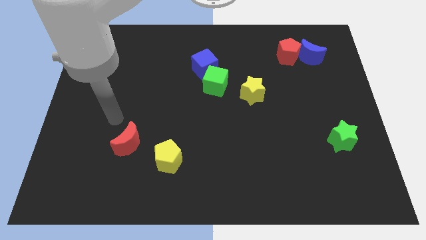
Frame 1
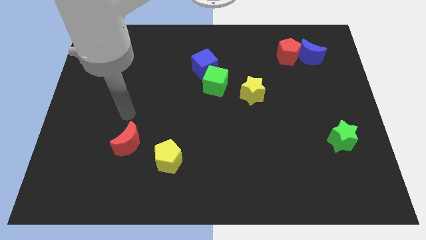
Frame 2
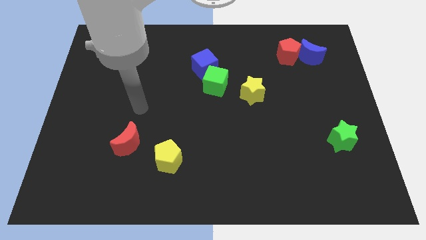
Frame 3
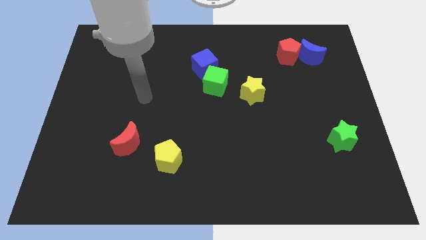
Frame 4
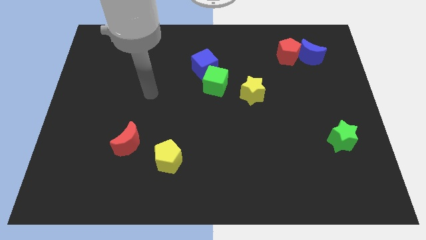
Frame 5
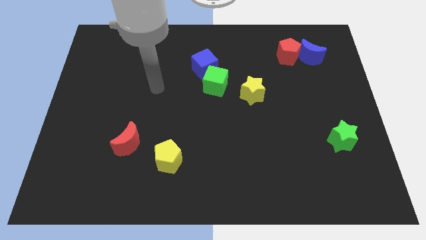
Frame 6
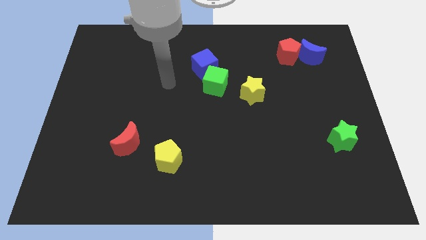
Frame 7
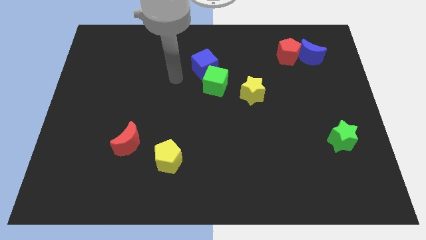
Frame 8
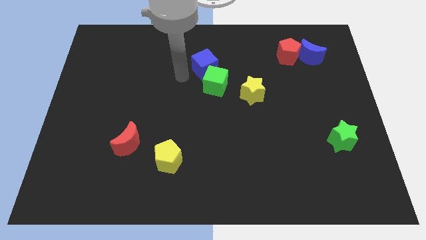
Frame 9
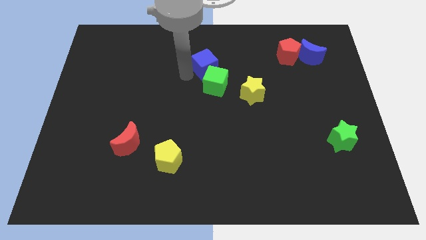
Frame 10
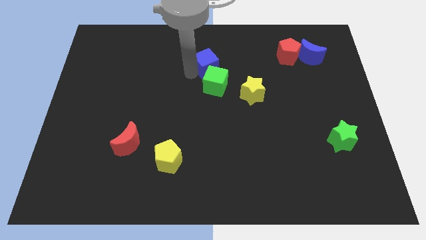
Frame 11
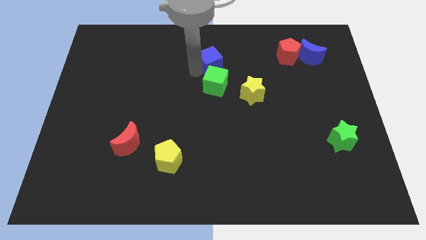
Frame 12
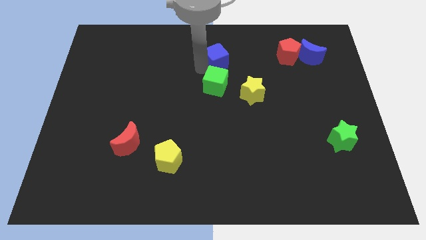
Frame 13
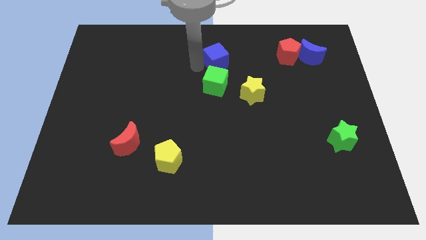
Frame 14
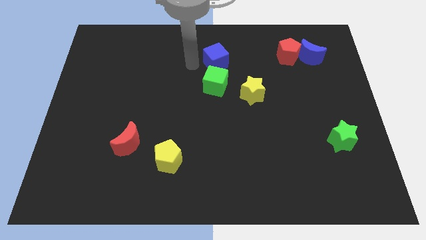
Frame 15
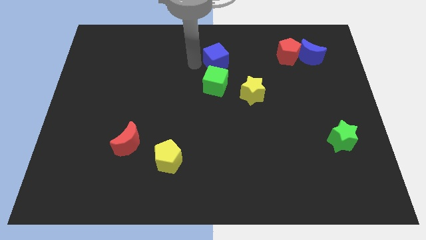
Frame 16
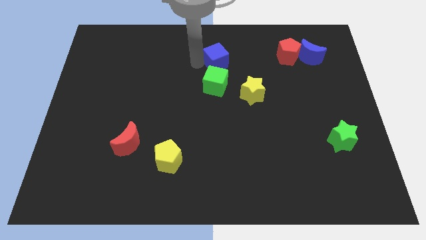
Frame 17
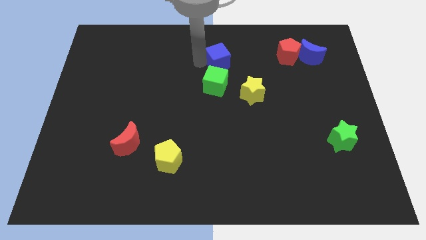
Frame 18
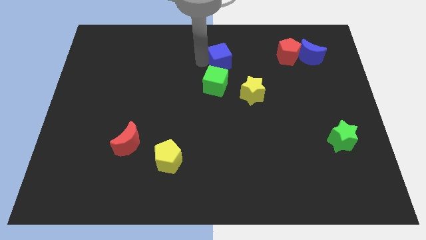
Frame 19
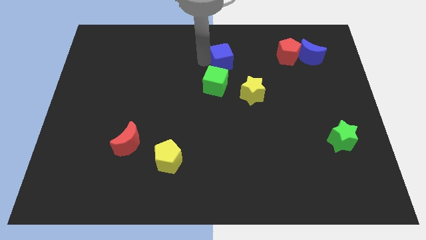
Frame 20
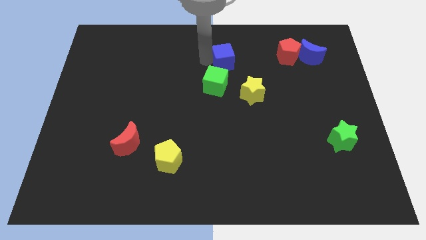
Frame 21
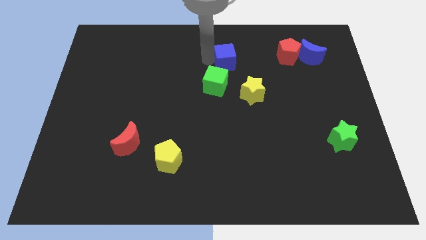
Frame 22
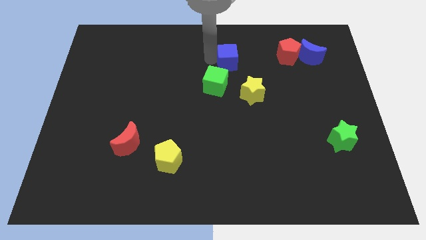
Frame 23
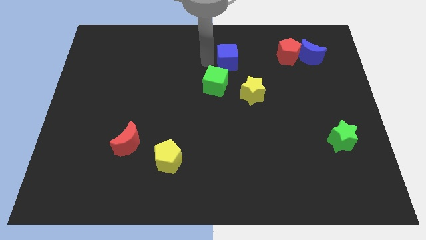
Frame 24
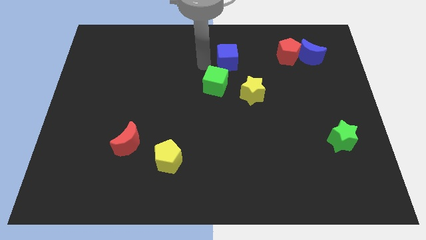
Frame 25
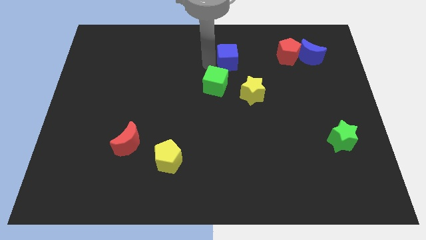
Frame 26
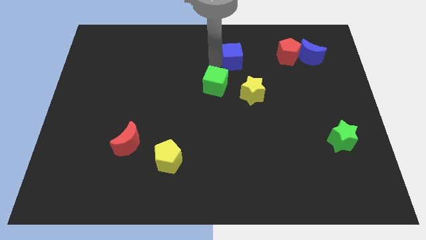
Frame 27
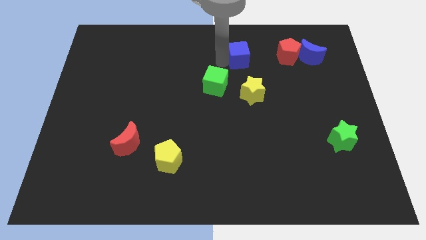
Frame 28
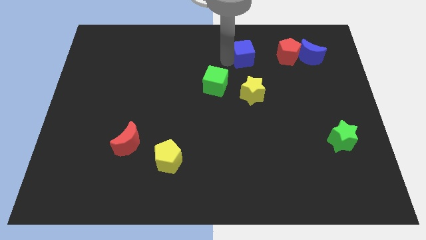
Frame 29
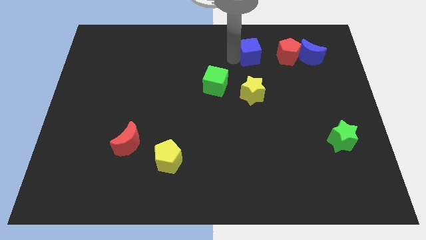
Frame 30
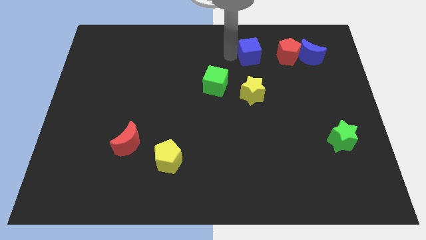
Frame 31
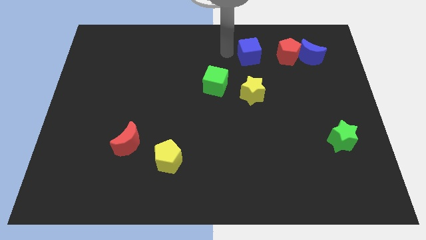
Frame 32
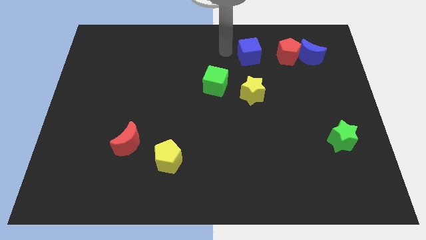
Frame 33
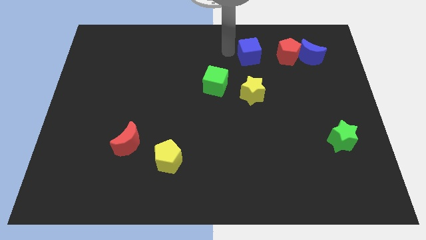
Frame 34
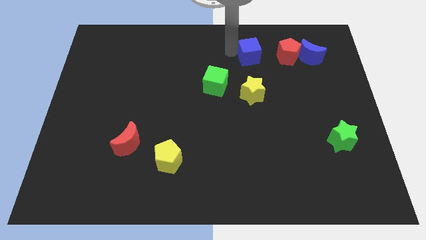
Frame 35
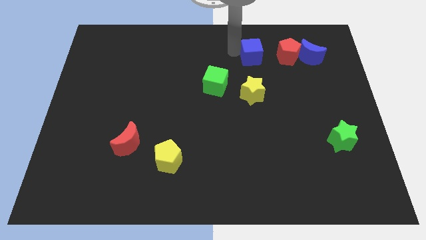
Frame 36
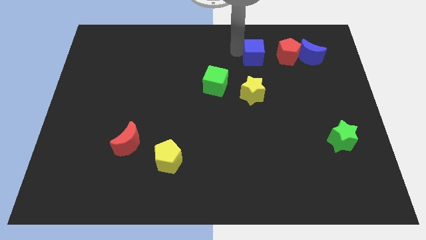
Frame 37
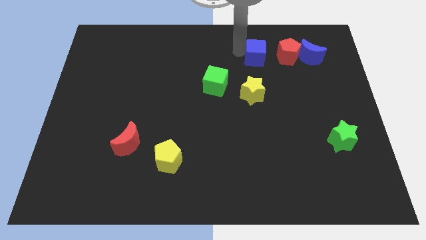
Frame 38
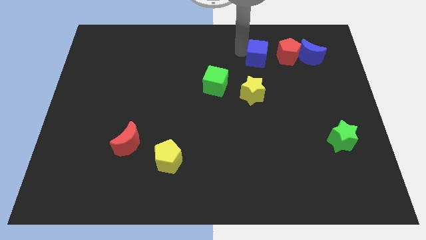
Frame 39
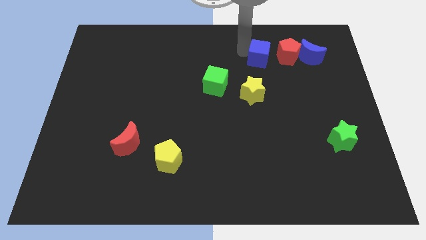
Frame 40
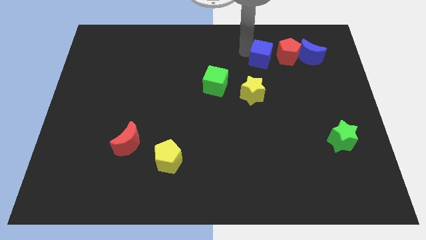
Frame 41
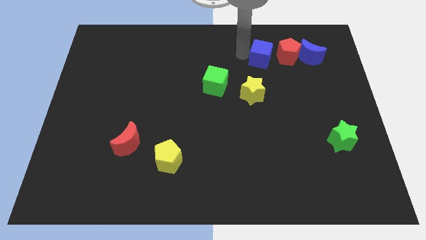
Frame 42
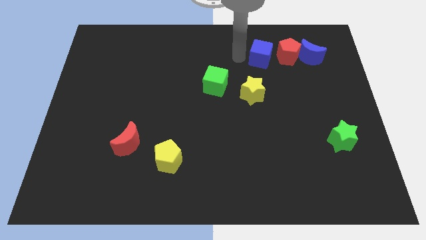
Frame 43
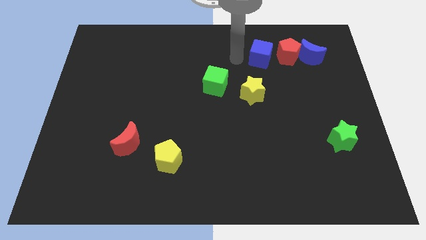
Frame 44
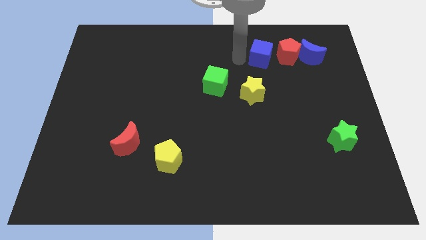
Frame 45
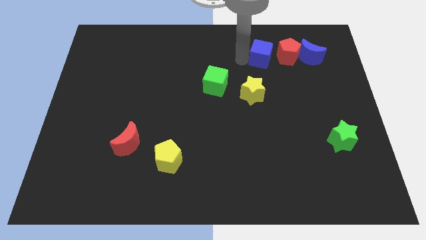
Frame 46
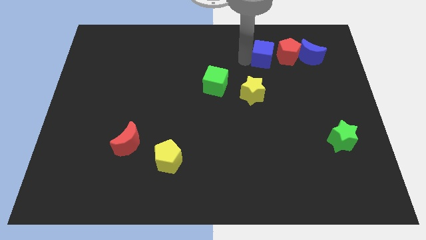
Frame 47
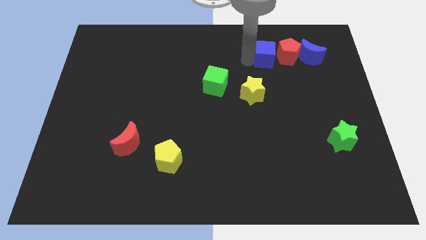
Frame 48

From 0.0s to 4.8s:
push the blue cube to the red pentagon

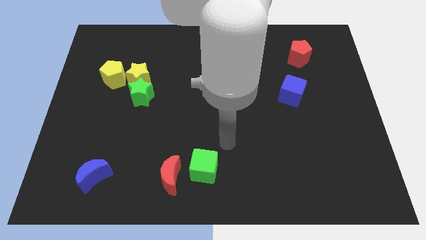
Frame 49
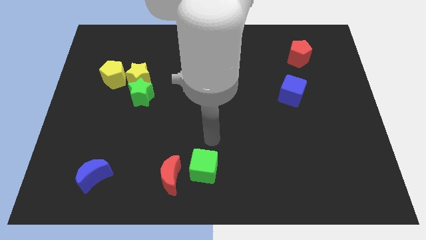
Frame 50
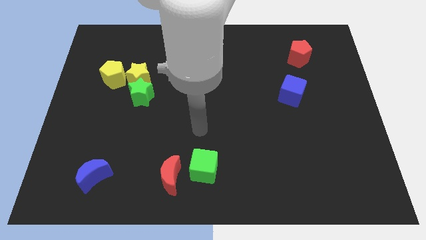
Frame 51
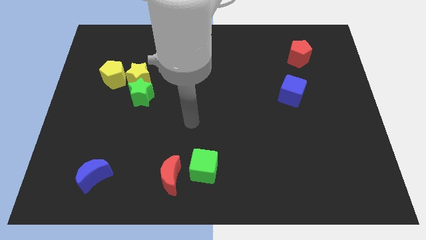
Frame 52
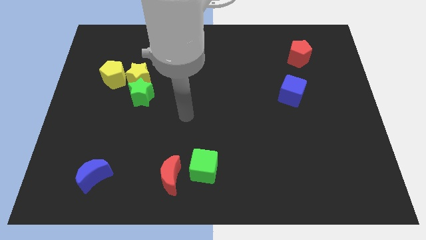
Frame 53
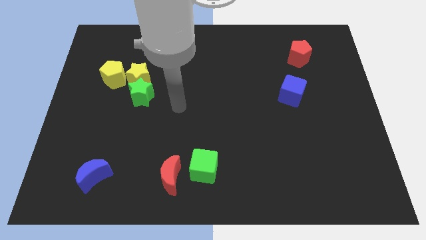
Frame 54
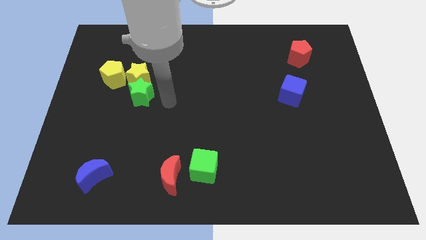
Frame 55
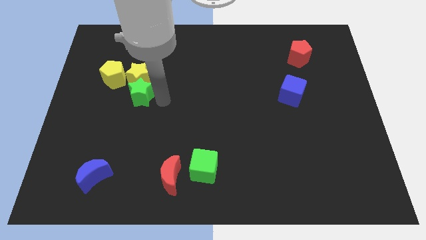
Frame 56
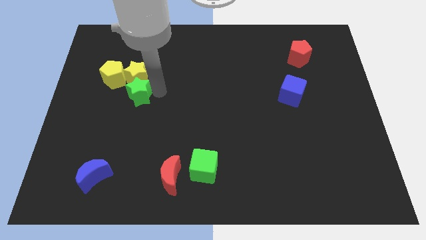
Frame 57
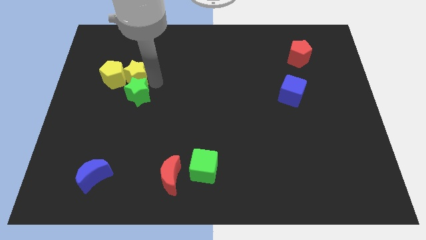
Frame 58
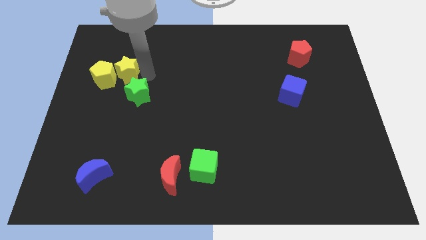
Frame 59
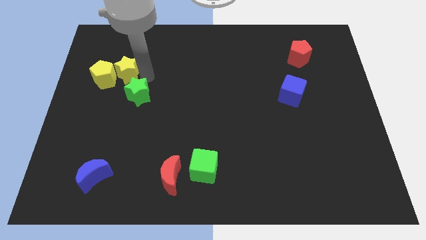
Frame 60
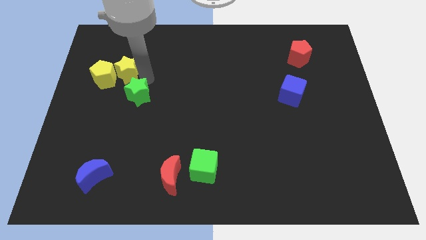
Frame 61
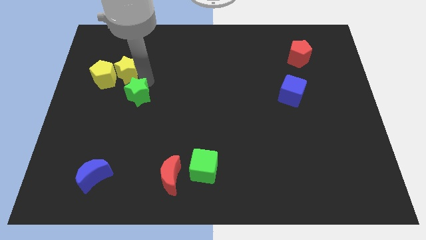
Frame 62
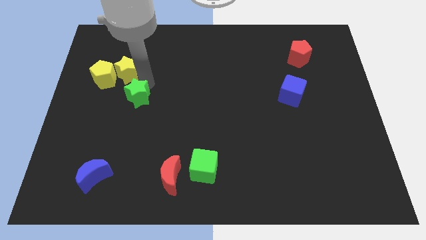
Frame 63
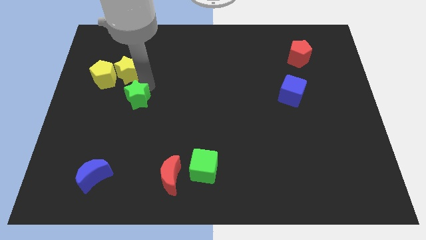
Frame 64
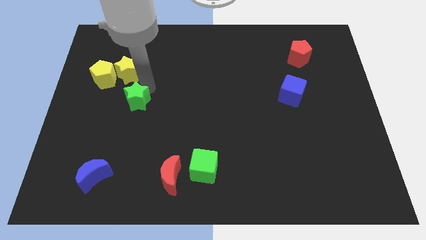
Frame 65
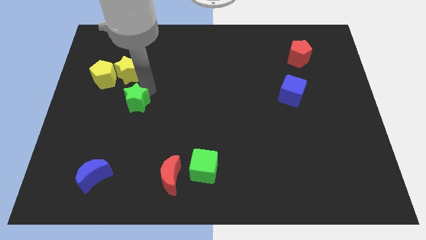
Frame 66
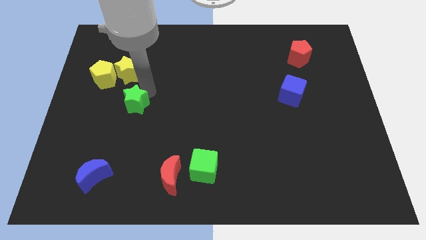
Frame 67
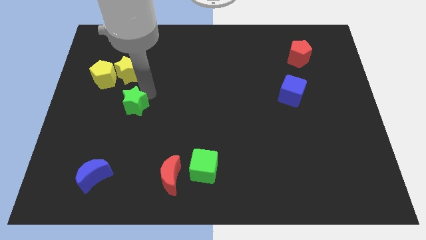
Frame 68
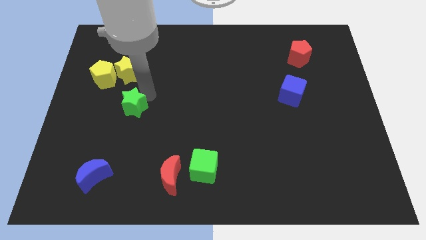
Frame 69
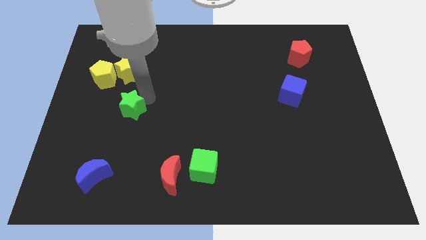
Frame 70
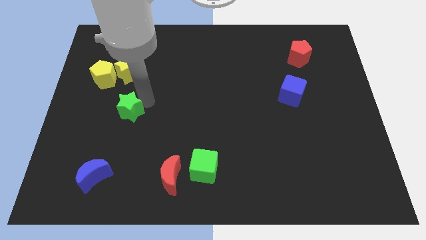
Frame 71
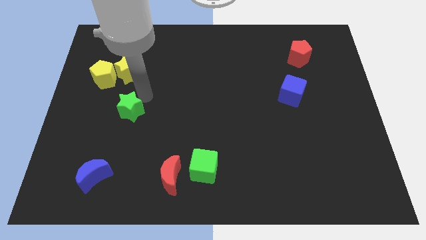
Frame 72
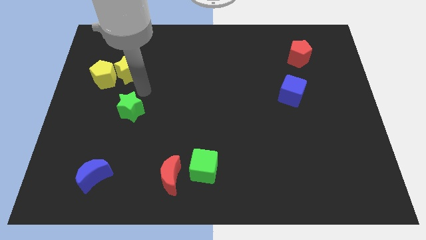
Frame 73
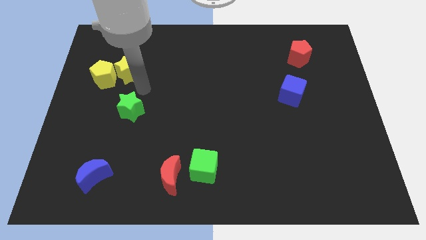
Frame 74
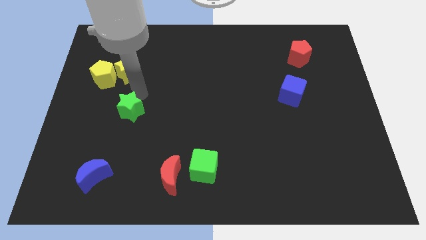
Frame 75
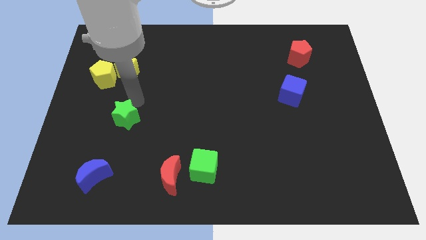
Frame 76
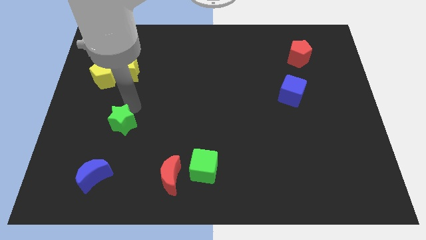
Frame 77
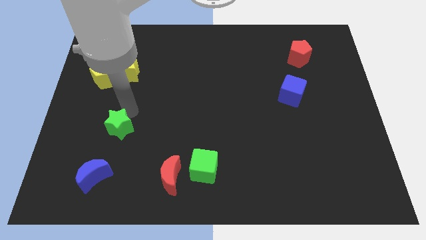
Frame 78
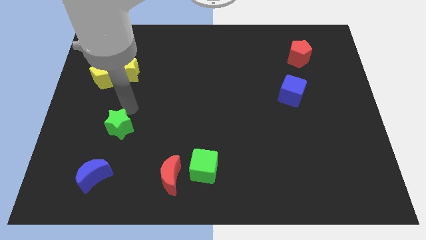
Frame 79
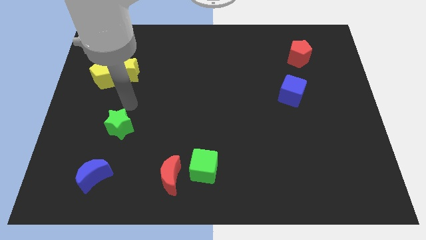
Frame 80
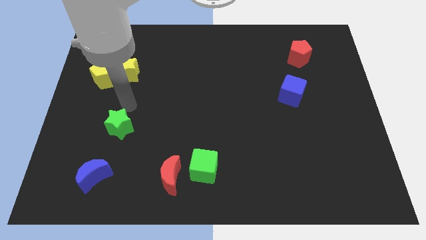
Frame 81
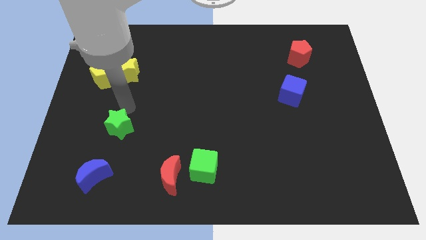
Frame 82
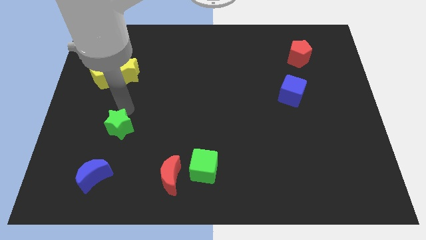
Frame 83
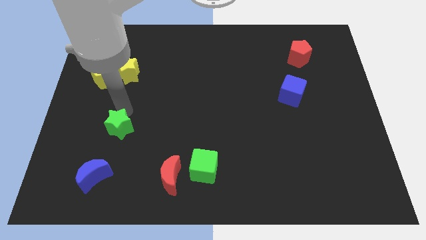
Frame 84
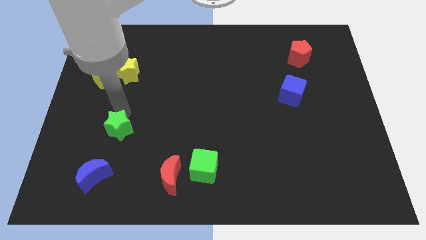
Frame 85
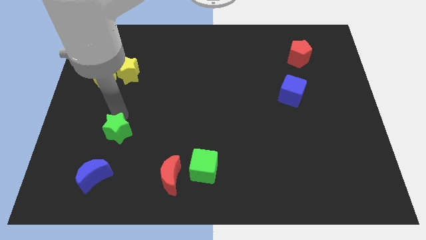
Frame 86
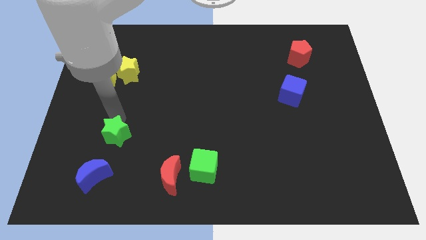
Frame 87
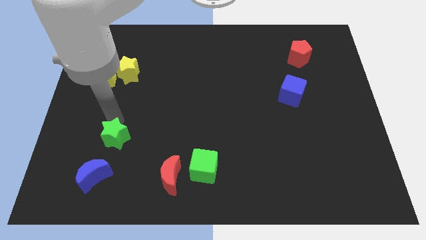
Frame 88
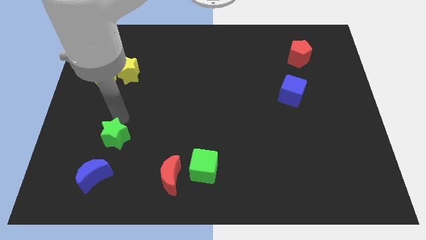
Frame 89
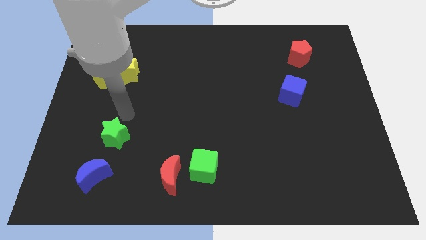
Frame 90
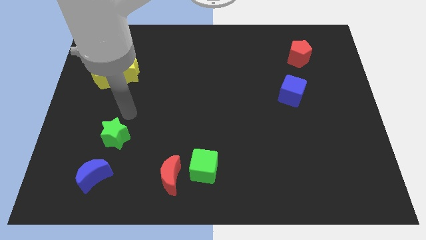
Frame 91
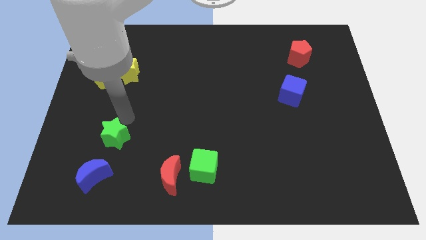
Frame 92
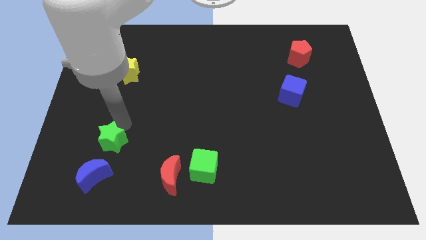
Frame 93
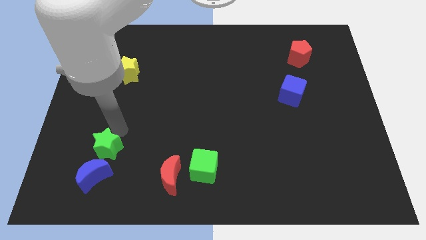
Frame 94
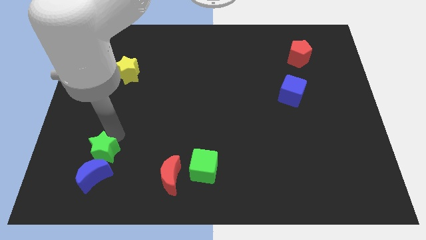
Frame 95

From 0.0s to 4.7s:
put the green star next to the blue moon
